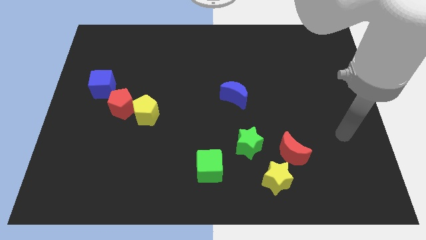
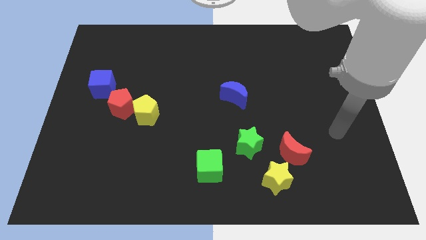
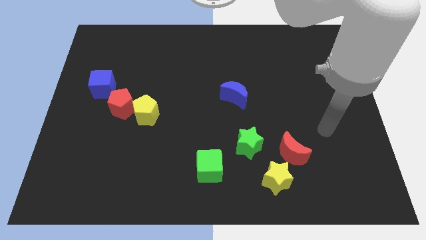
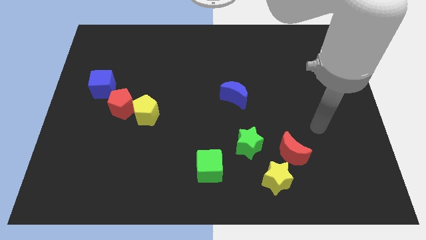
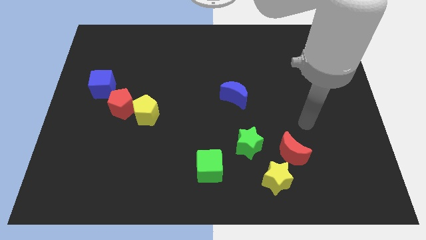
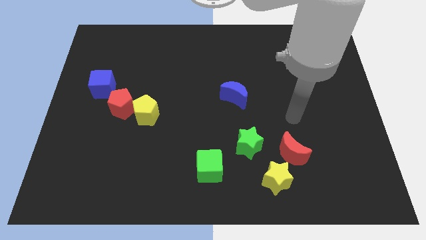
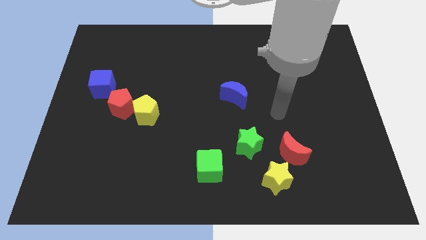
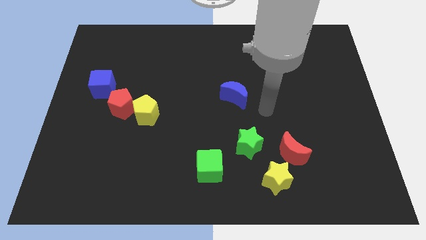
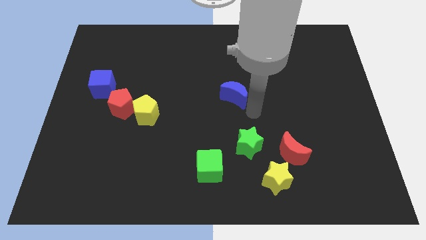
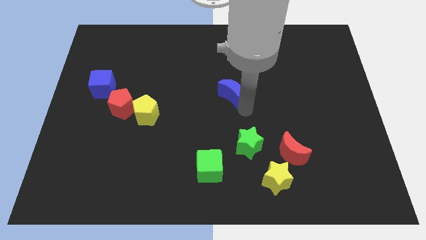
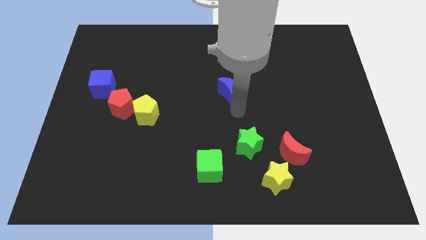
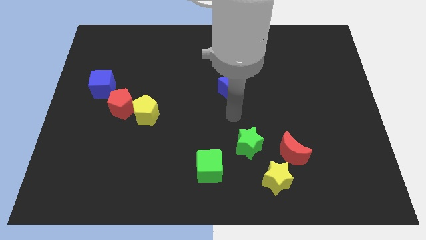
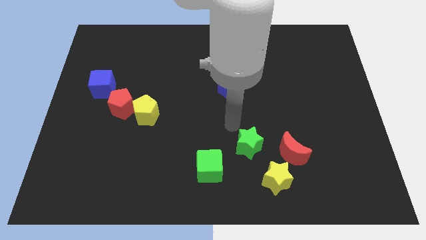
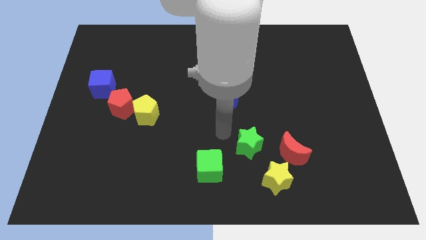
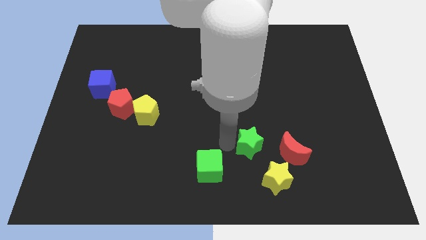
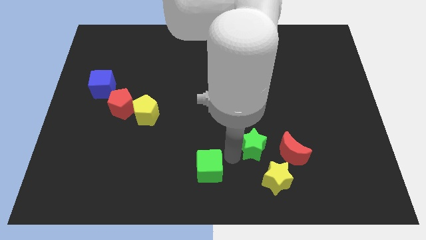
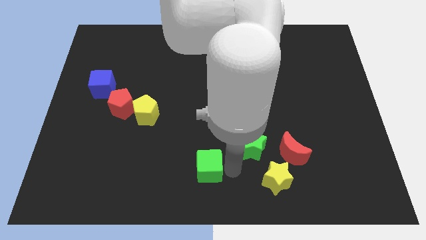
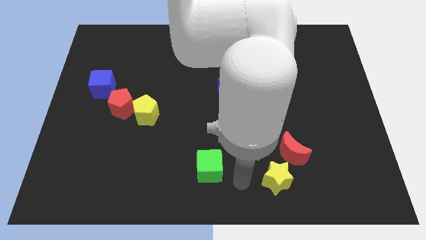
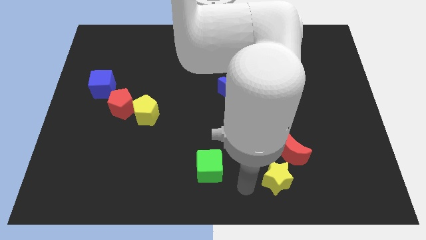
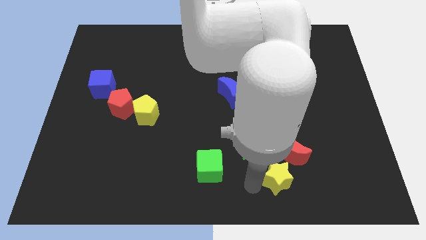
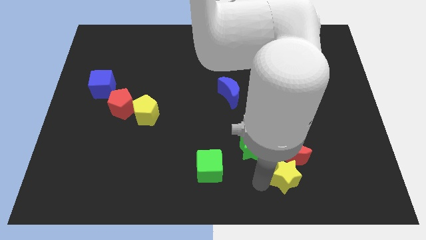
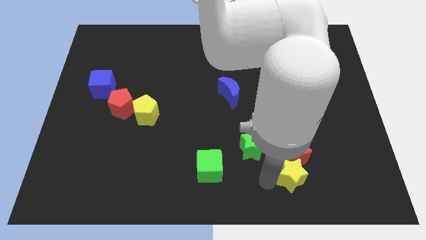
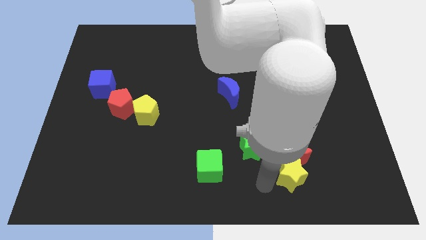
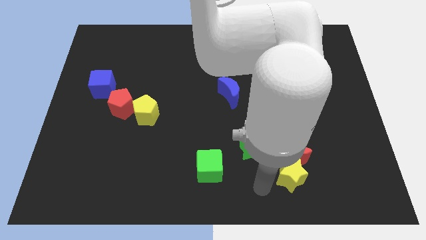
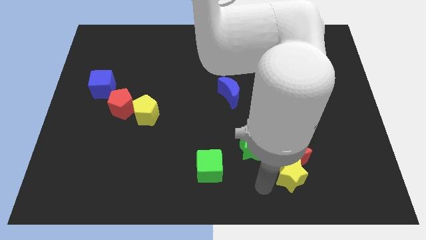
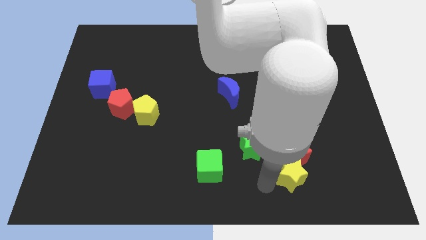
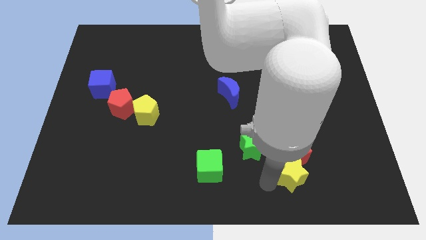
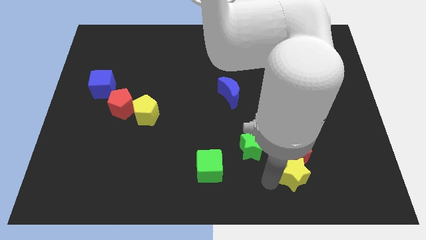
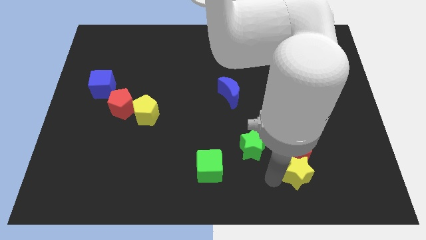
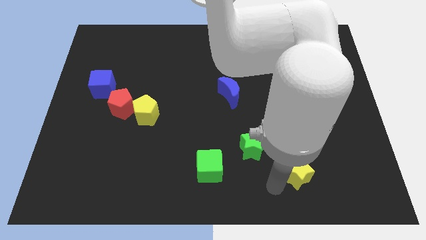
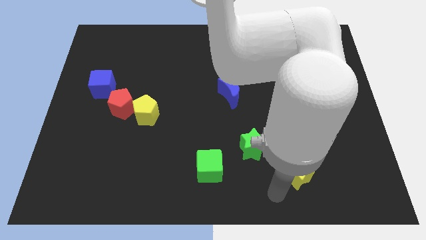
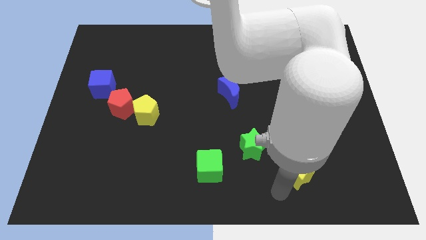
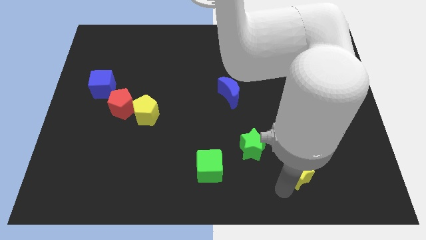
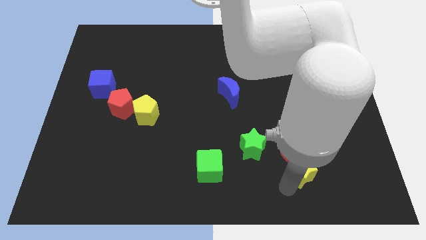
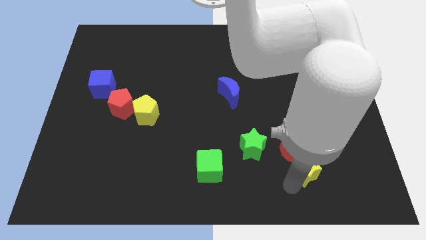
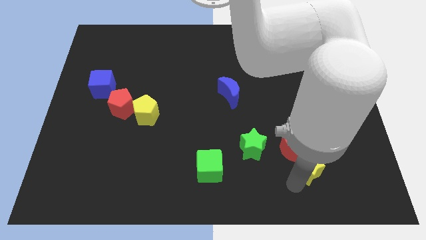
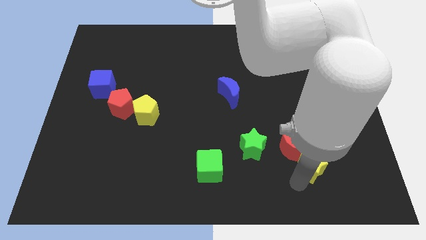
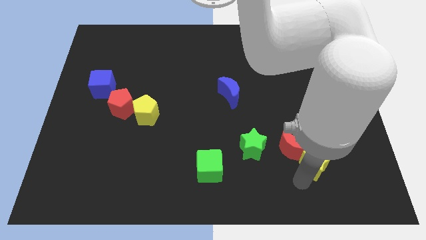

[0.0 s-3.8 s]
push the yellow star a little diagonally up and to the right

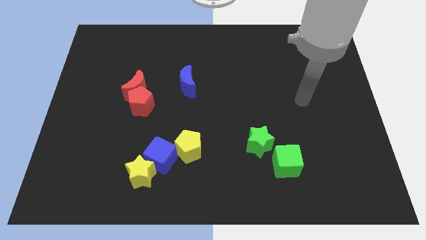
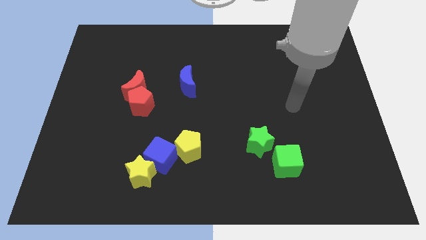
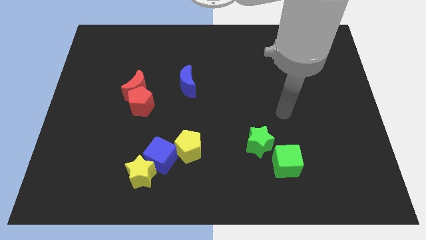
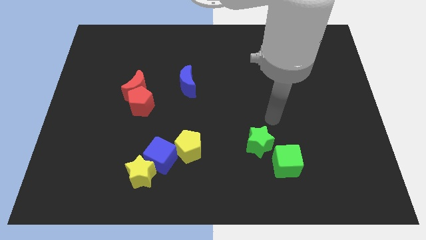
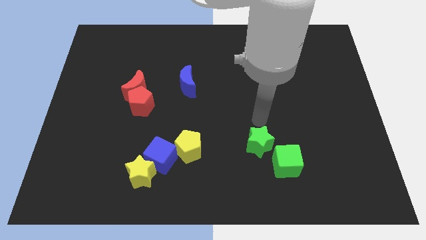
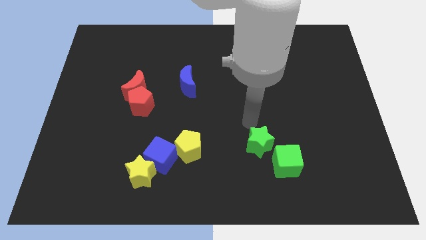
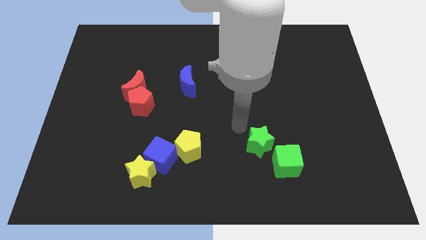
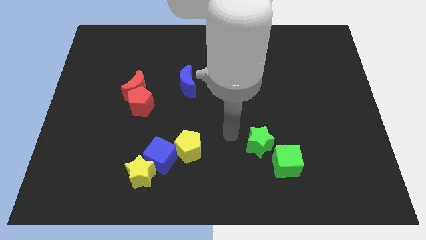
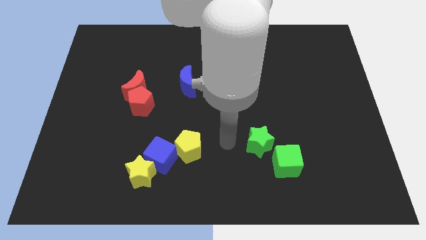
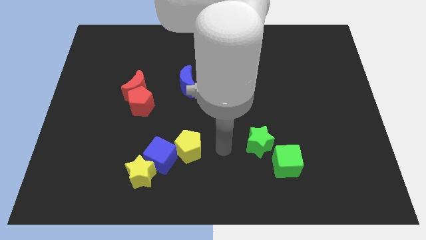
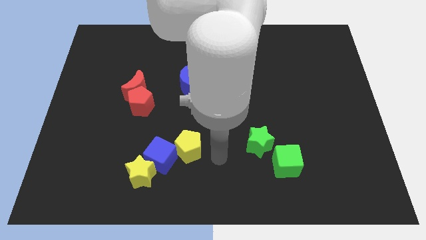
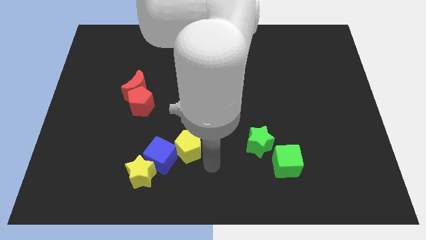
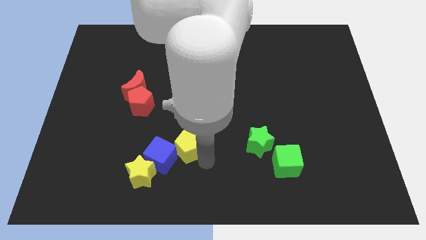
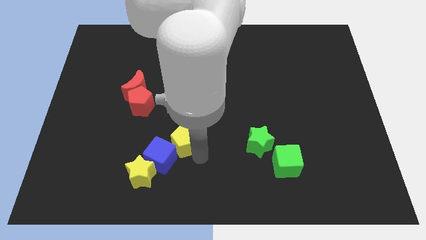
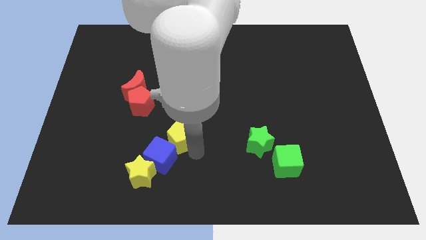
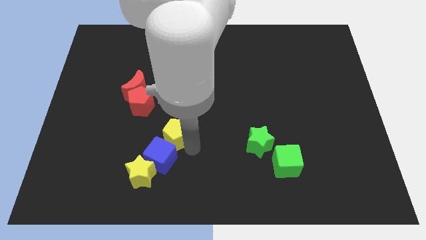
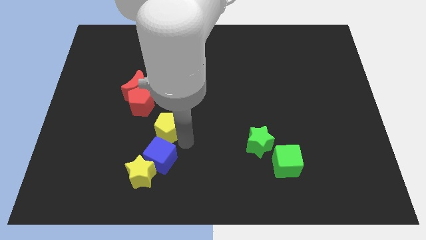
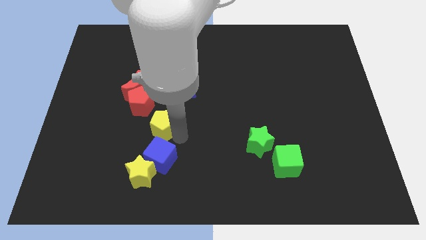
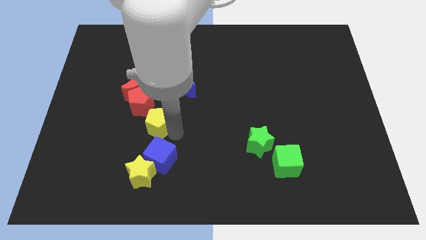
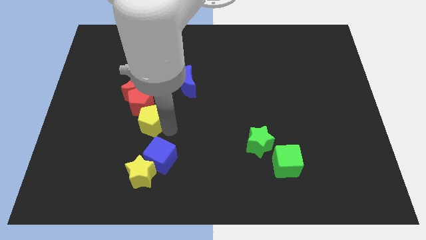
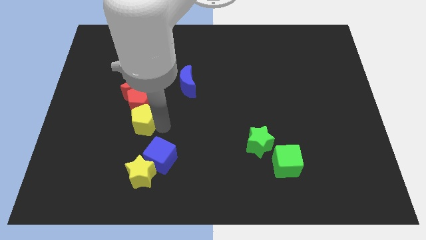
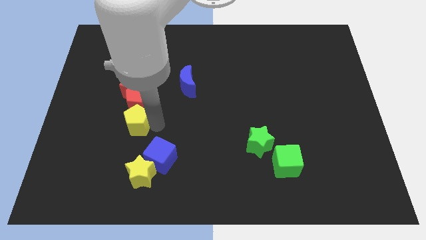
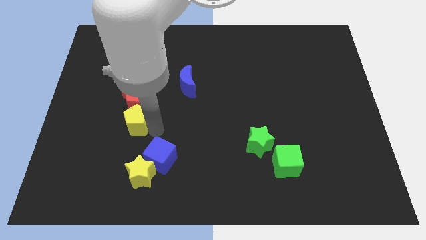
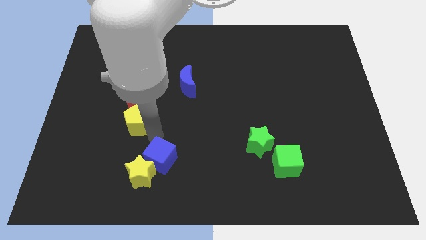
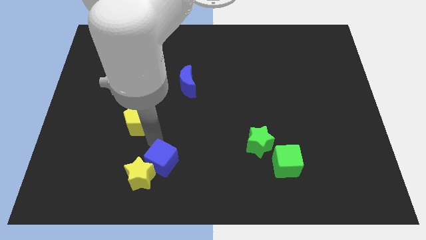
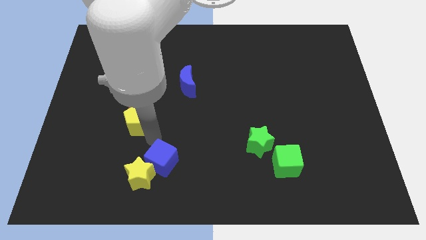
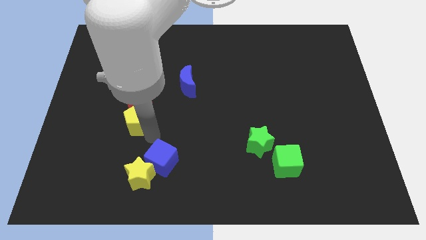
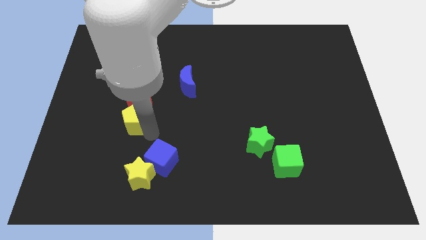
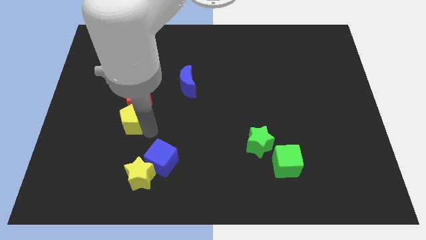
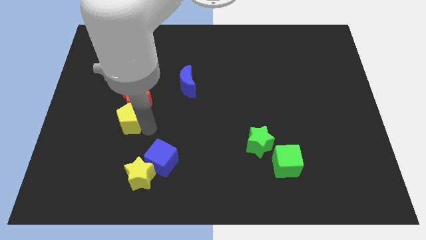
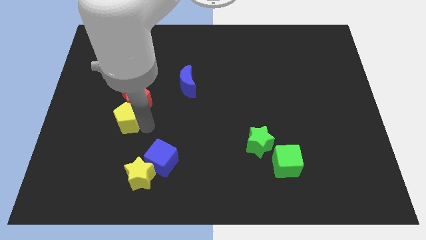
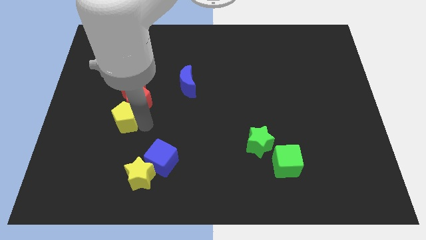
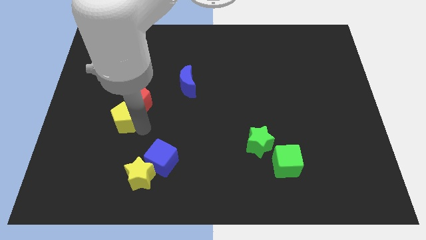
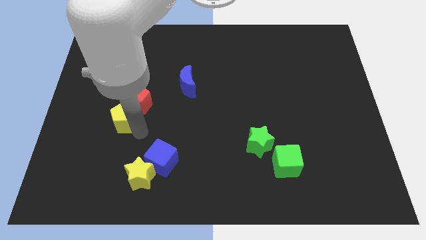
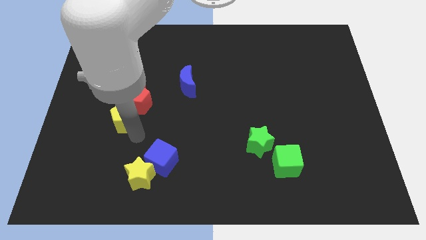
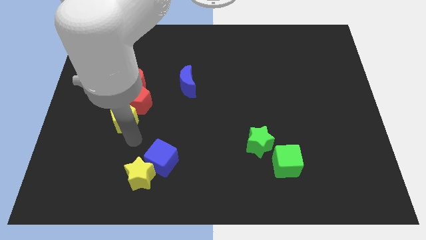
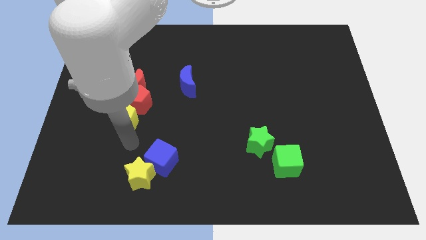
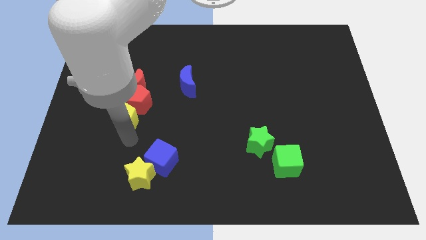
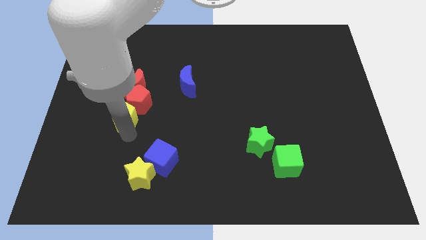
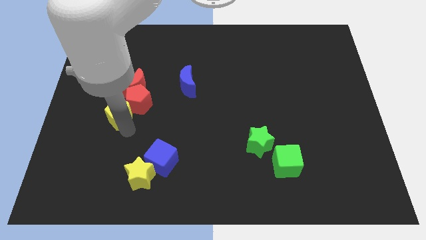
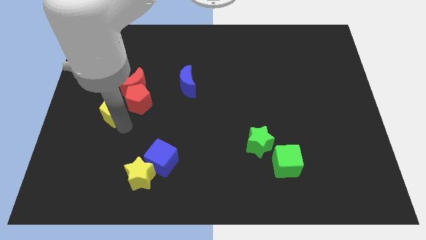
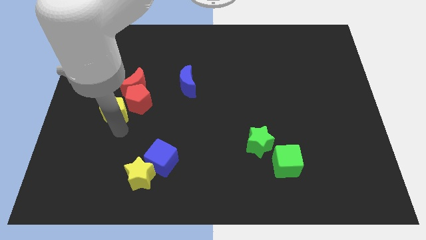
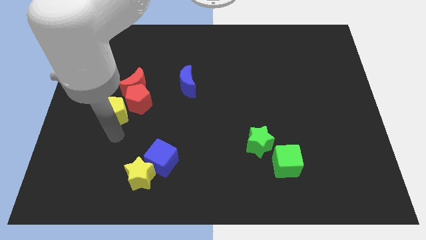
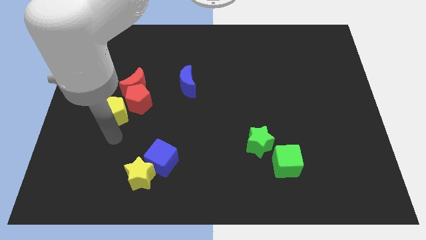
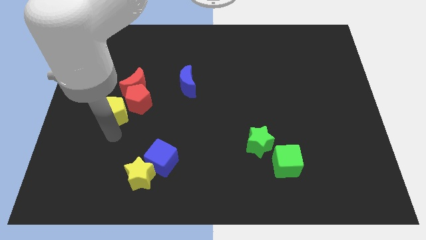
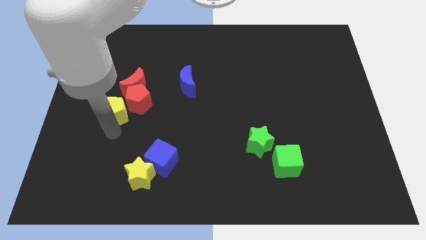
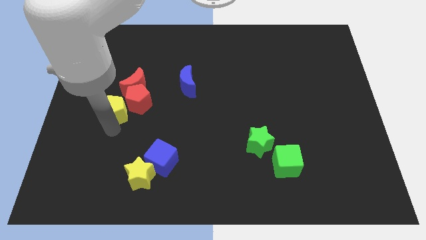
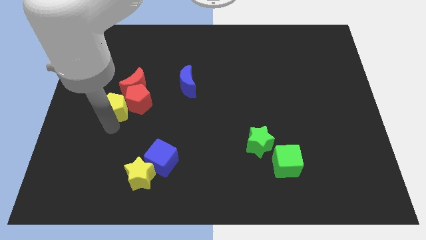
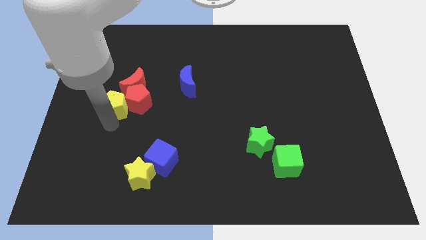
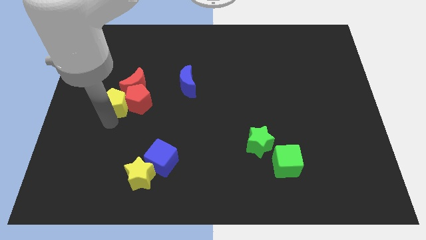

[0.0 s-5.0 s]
push the yellow pentagon up and to the left
